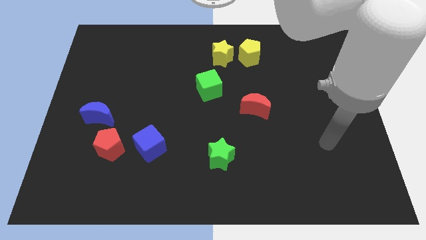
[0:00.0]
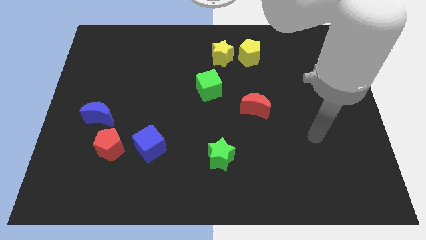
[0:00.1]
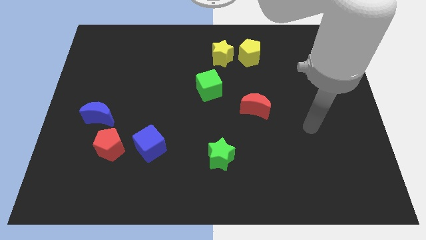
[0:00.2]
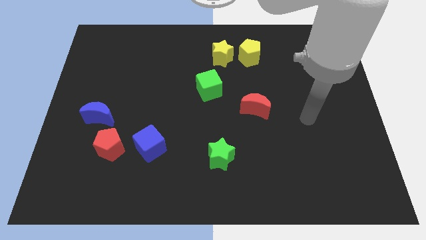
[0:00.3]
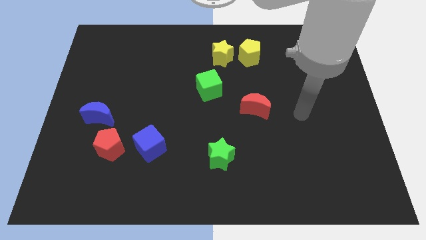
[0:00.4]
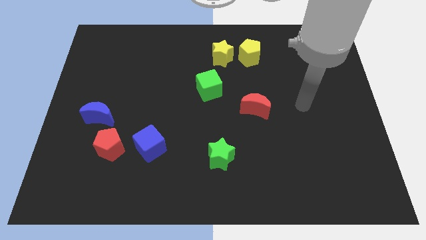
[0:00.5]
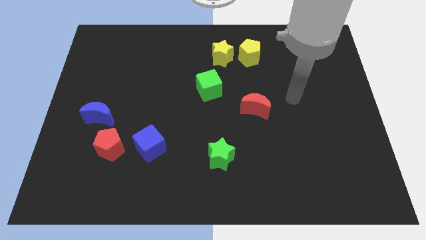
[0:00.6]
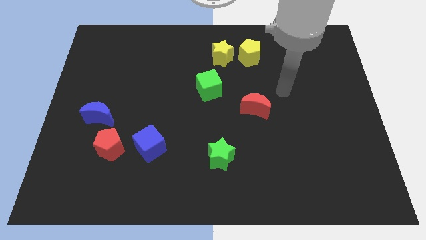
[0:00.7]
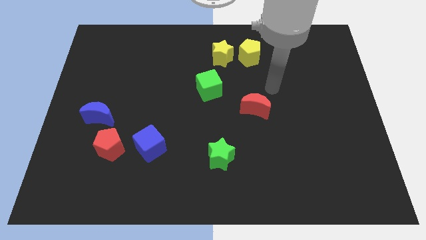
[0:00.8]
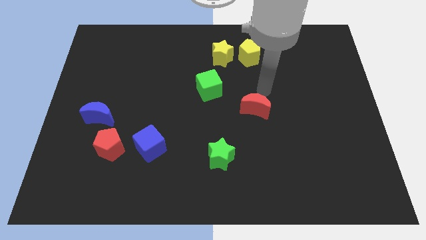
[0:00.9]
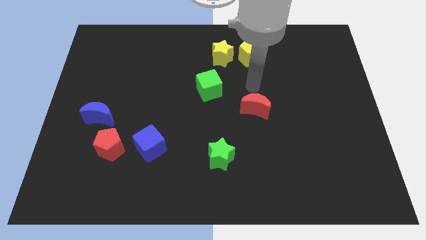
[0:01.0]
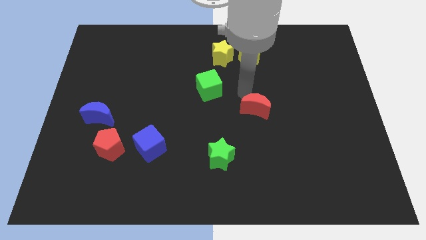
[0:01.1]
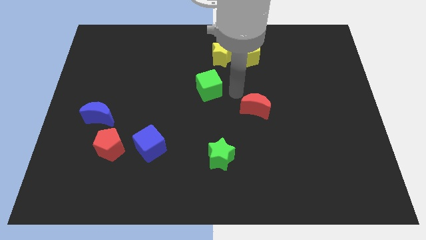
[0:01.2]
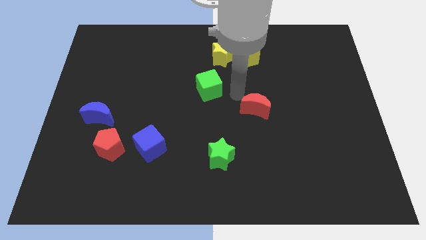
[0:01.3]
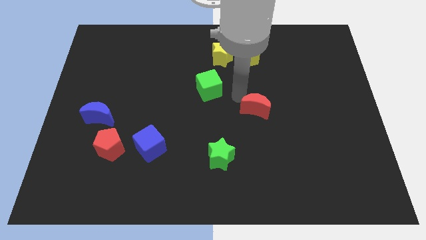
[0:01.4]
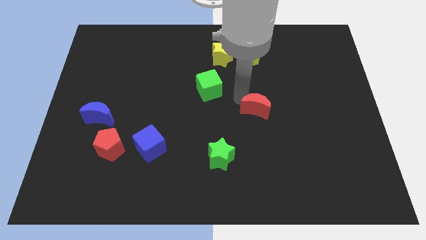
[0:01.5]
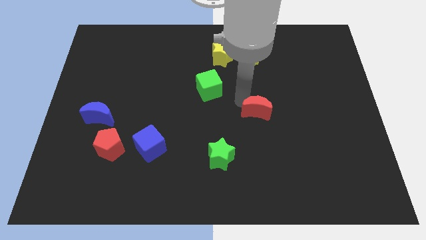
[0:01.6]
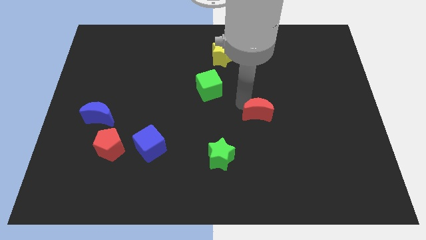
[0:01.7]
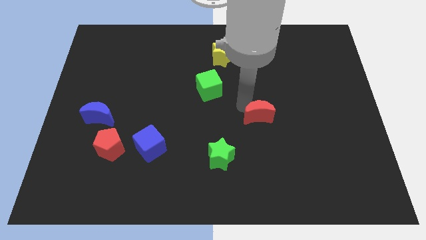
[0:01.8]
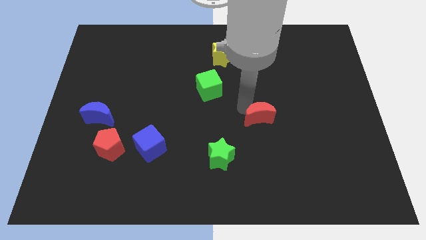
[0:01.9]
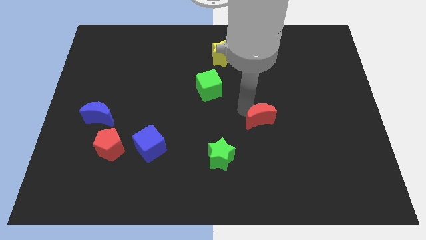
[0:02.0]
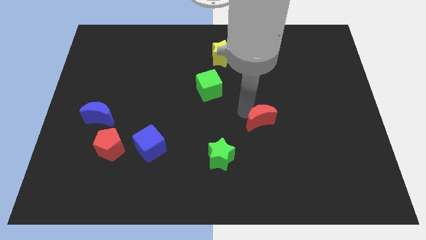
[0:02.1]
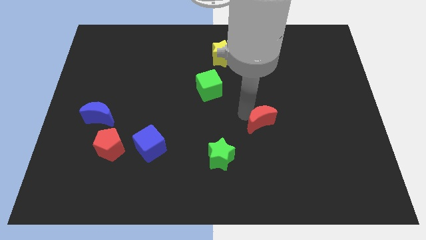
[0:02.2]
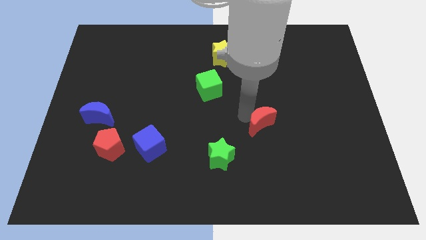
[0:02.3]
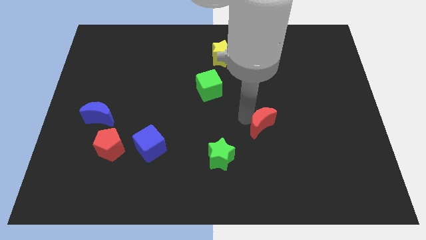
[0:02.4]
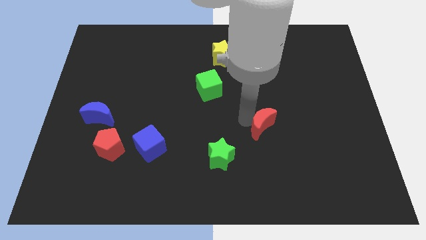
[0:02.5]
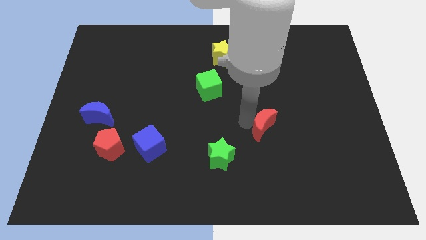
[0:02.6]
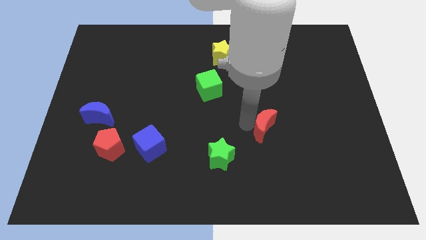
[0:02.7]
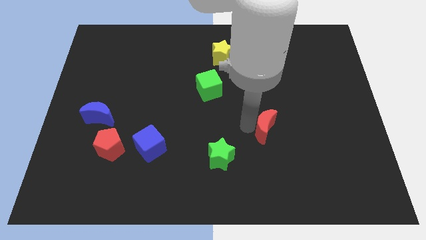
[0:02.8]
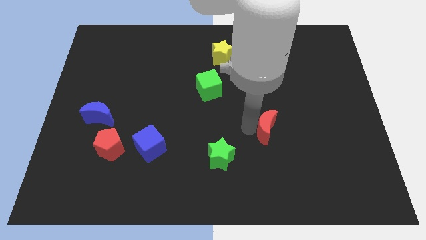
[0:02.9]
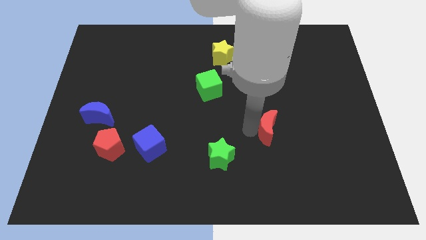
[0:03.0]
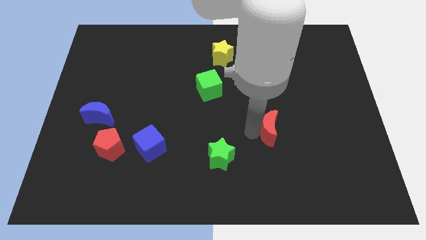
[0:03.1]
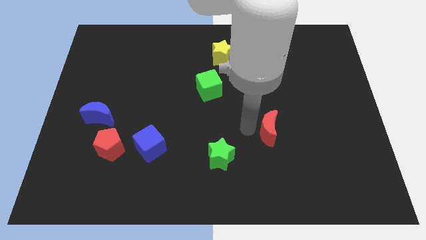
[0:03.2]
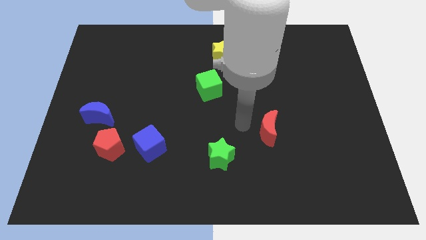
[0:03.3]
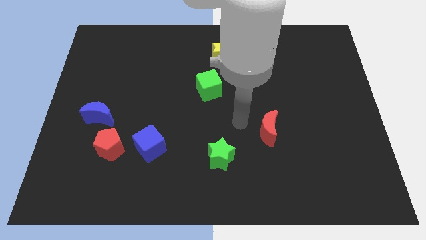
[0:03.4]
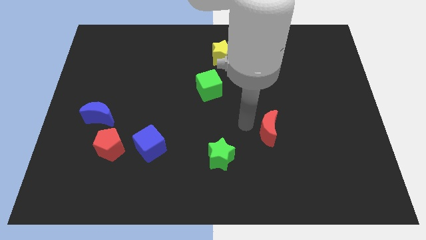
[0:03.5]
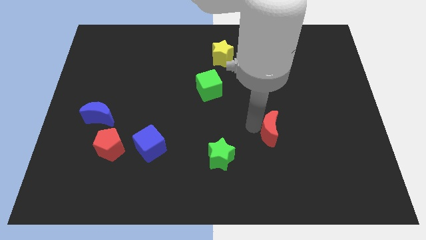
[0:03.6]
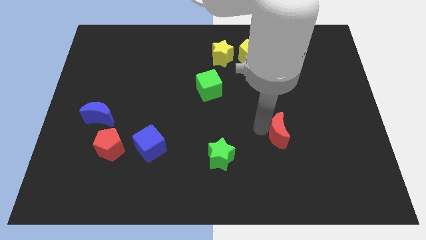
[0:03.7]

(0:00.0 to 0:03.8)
slide the red moon somewhat down and right

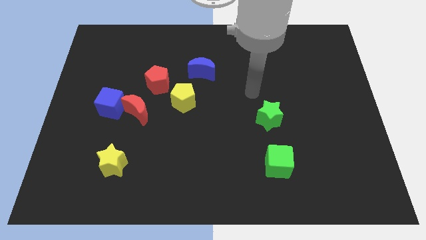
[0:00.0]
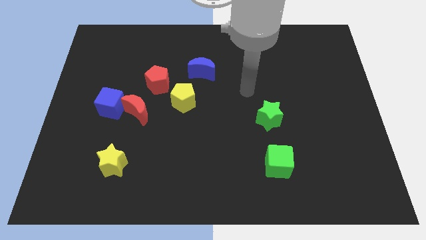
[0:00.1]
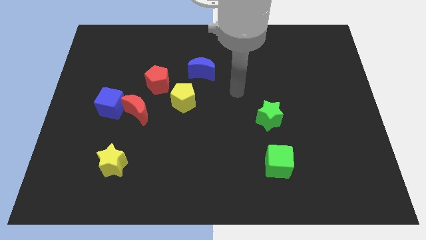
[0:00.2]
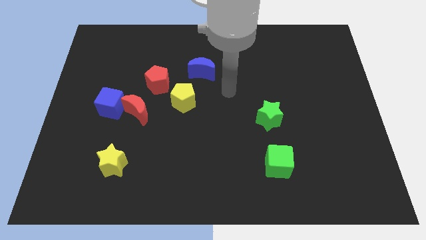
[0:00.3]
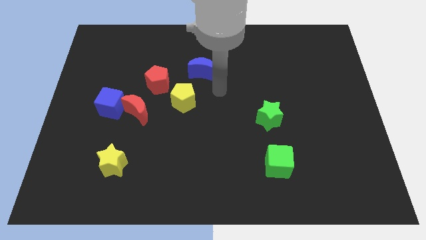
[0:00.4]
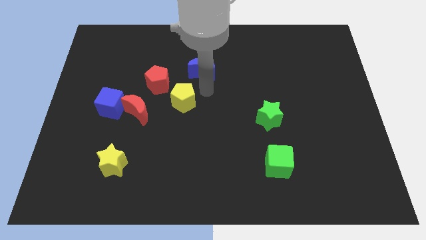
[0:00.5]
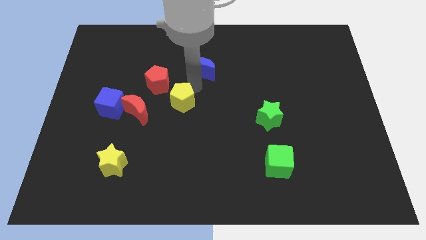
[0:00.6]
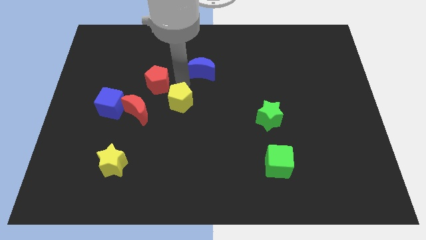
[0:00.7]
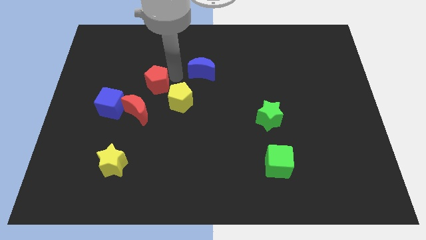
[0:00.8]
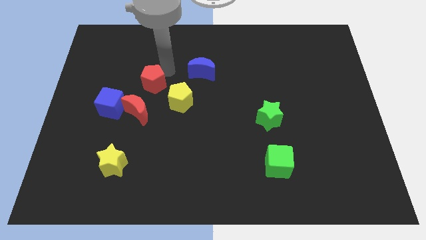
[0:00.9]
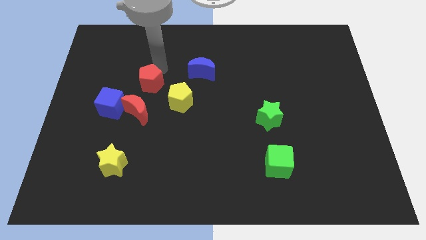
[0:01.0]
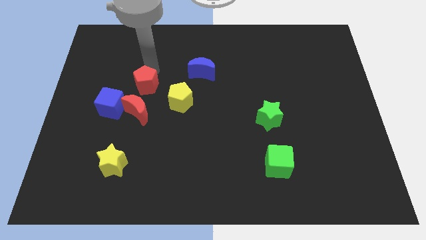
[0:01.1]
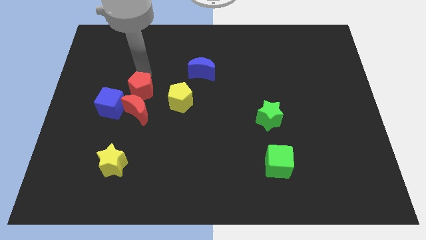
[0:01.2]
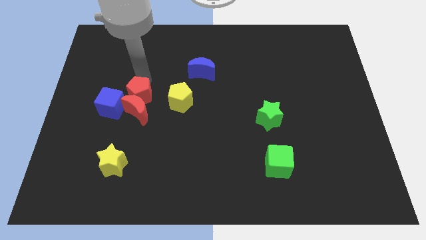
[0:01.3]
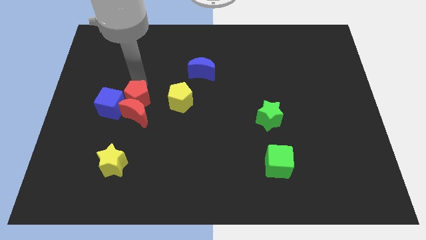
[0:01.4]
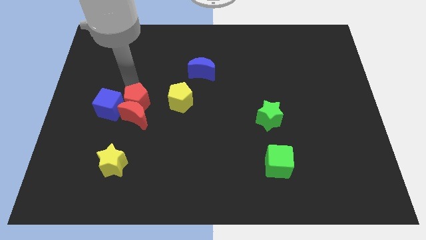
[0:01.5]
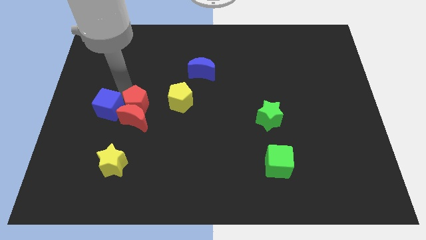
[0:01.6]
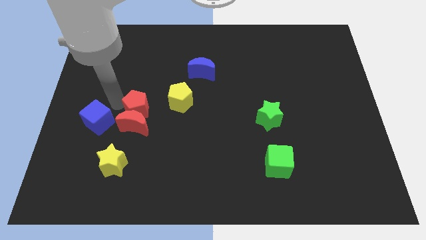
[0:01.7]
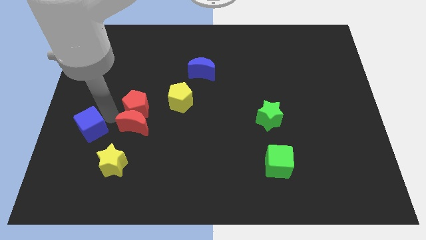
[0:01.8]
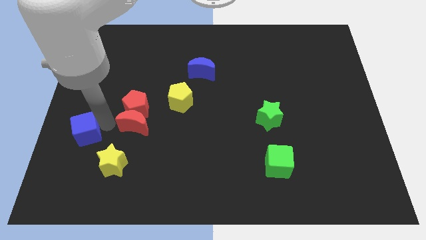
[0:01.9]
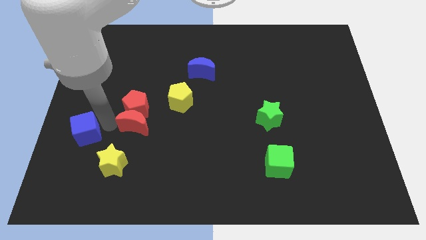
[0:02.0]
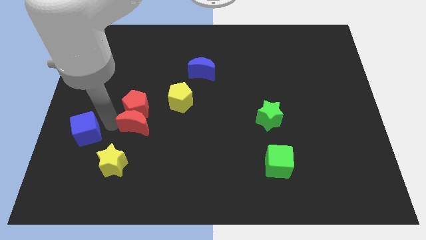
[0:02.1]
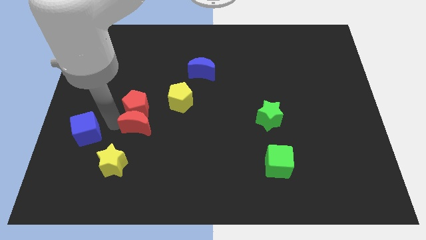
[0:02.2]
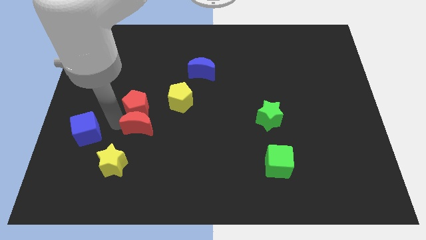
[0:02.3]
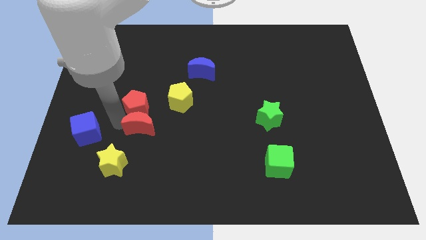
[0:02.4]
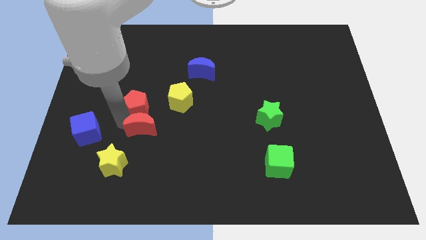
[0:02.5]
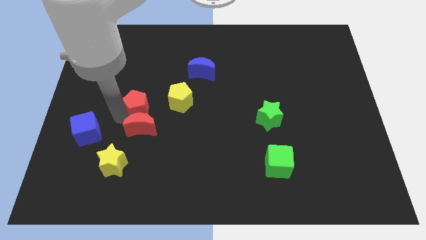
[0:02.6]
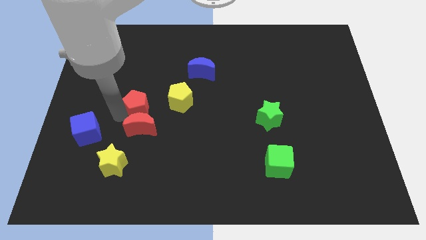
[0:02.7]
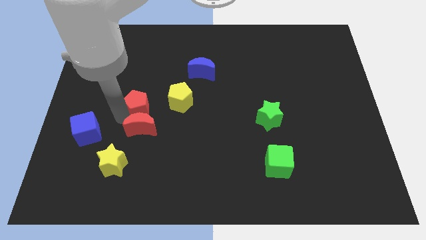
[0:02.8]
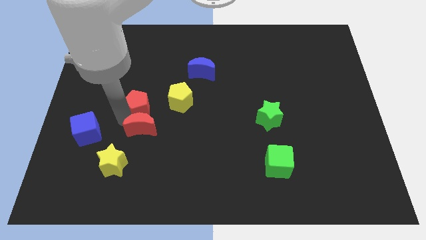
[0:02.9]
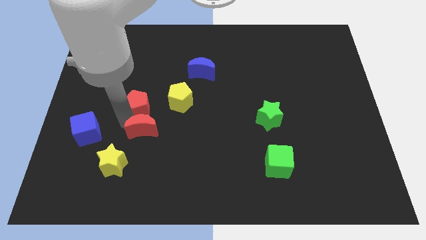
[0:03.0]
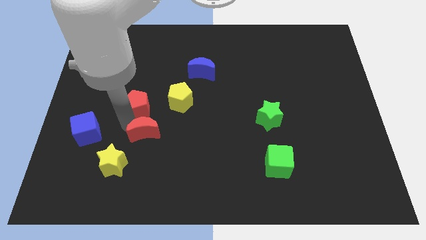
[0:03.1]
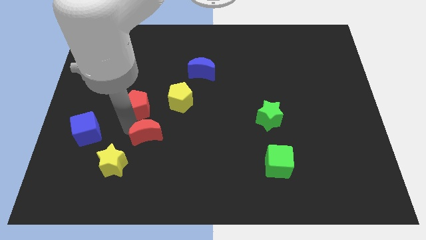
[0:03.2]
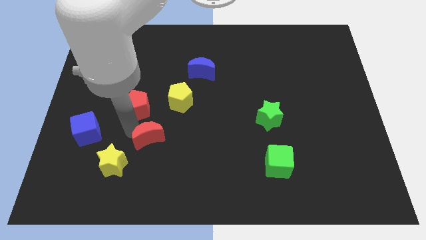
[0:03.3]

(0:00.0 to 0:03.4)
slightly push the red moon downwards and to the right diagonally

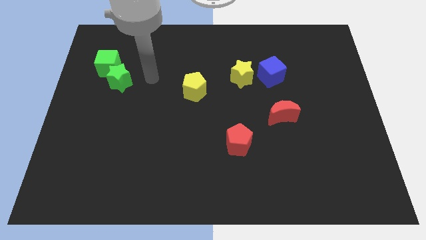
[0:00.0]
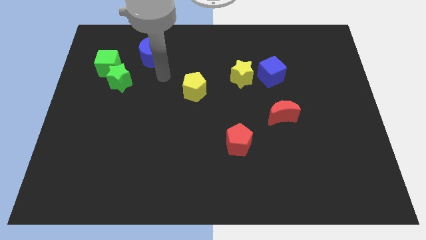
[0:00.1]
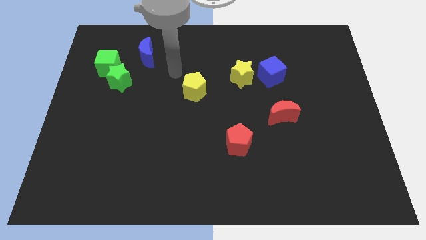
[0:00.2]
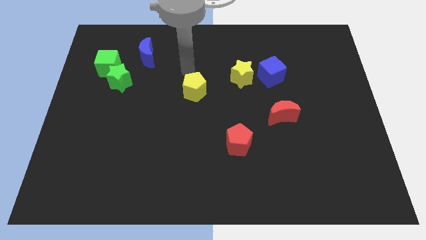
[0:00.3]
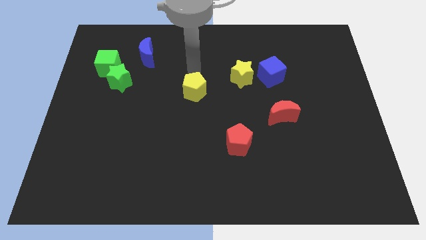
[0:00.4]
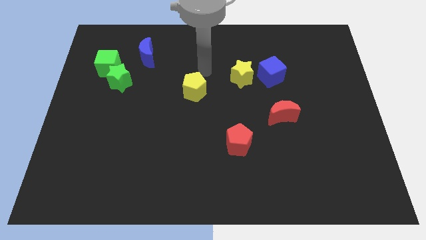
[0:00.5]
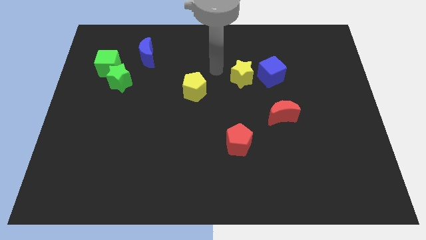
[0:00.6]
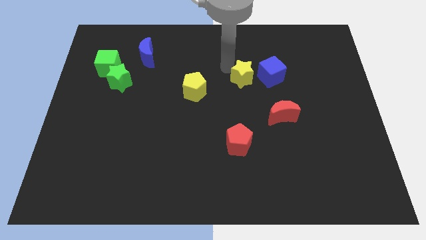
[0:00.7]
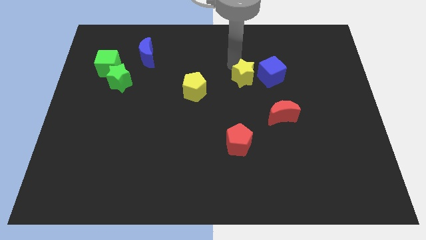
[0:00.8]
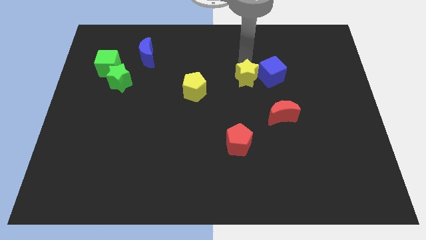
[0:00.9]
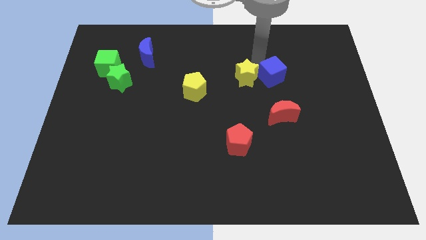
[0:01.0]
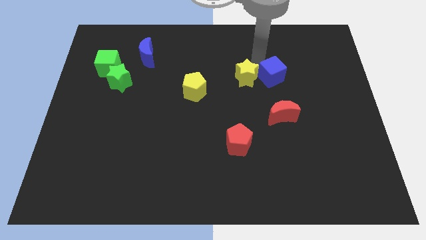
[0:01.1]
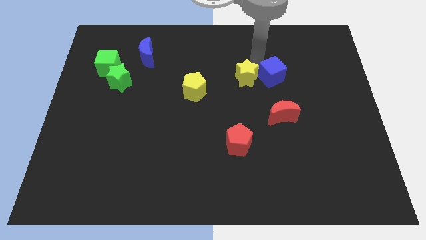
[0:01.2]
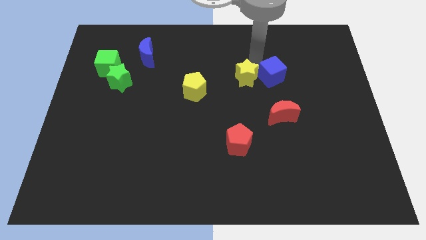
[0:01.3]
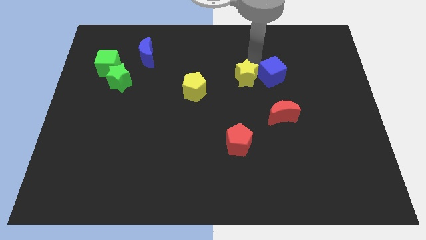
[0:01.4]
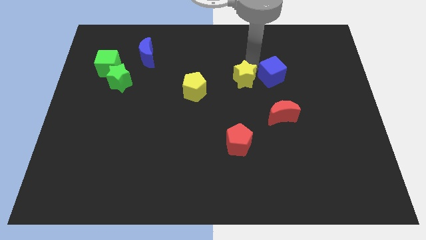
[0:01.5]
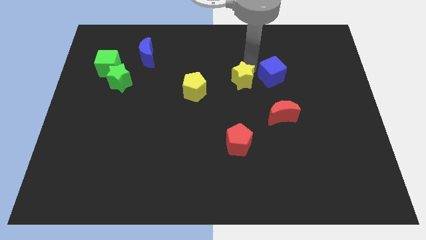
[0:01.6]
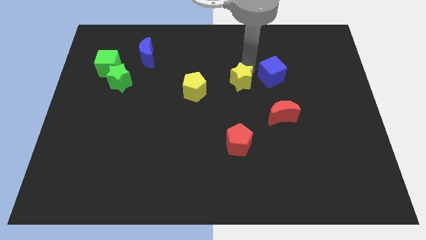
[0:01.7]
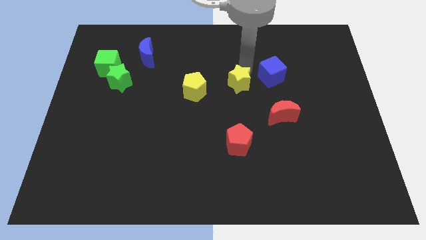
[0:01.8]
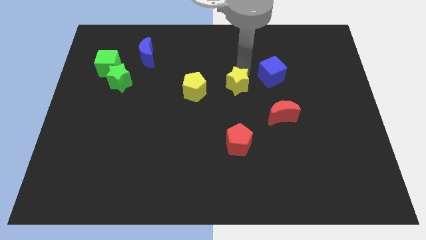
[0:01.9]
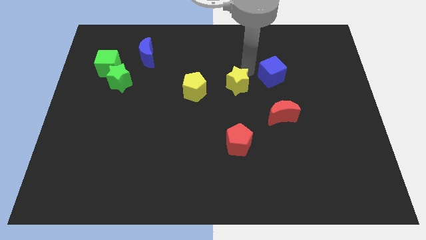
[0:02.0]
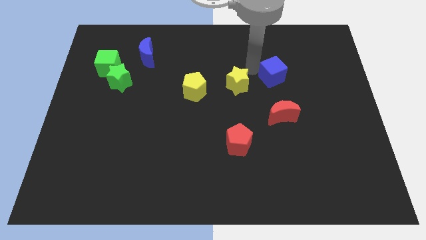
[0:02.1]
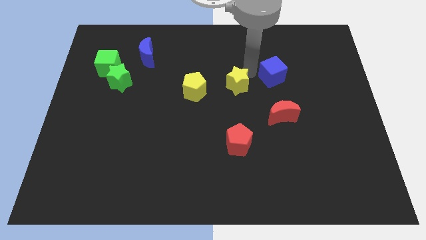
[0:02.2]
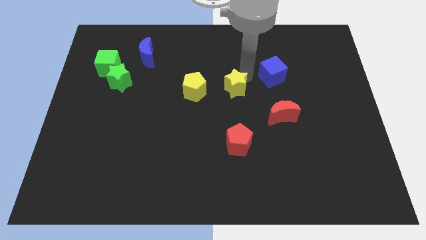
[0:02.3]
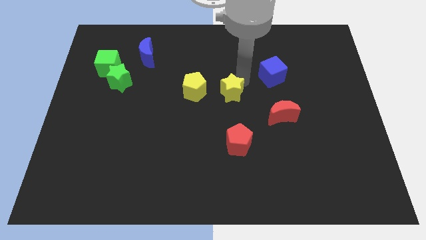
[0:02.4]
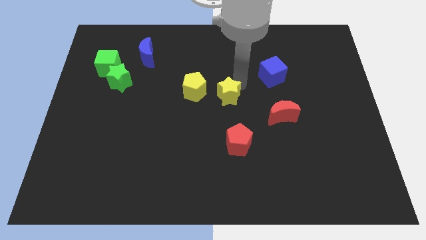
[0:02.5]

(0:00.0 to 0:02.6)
push the yellow star a little down and to the left diagonally
